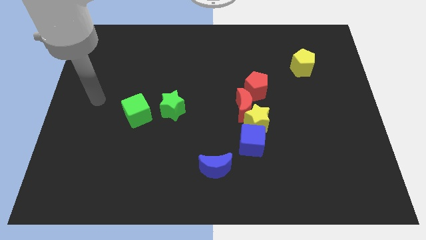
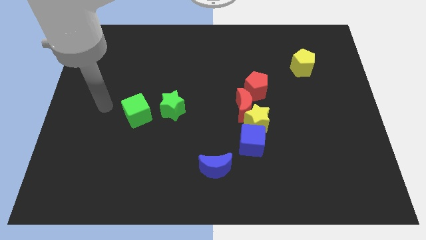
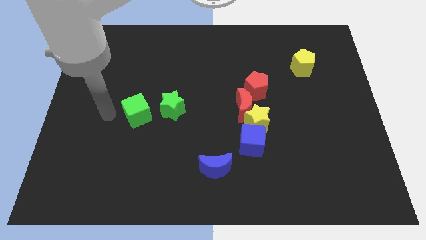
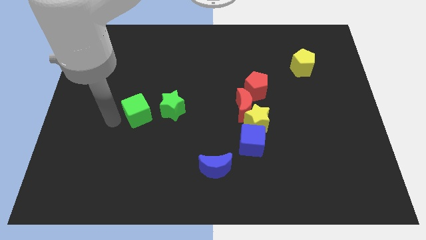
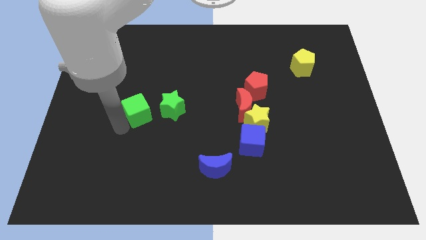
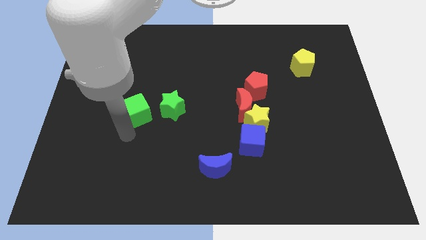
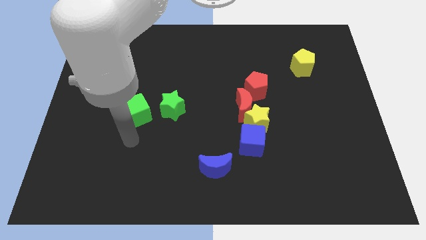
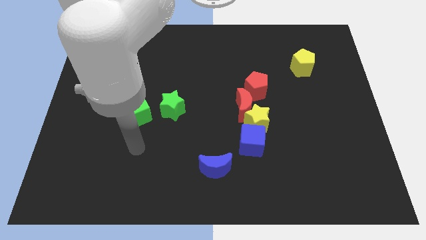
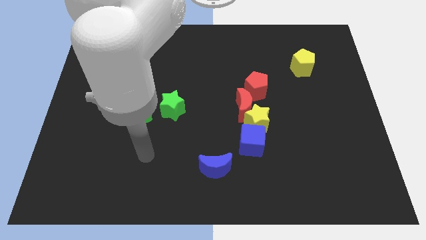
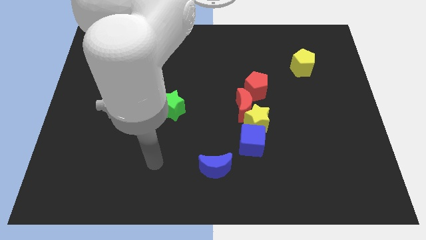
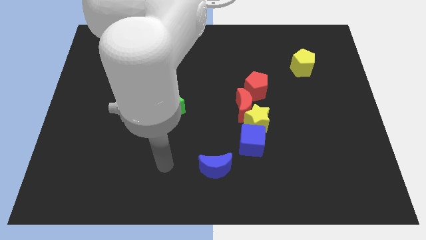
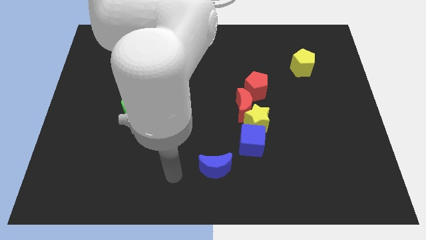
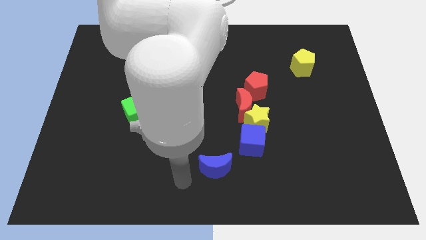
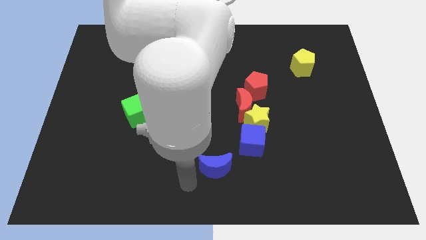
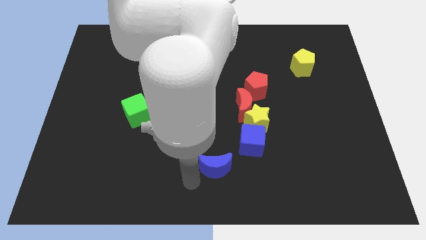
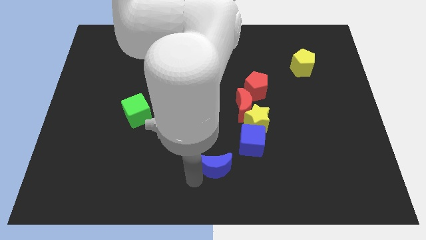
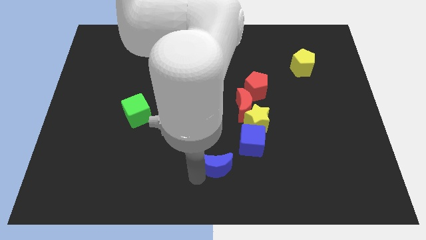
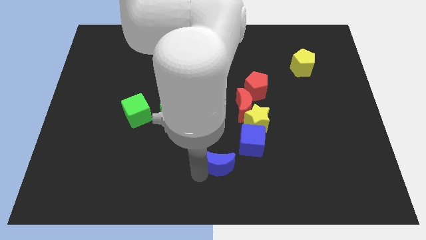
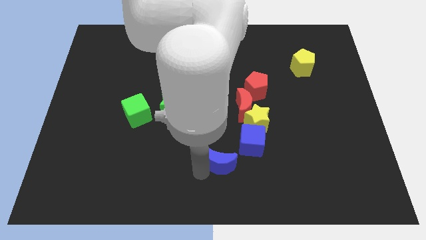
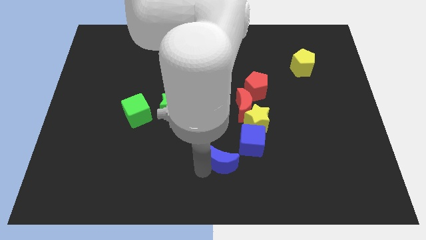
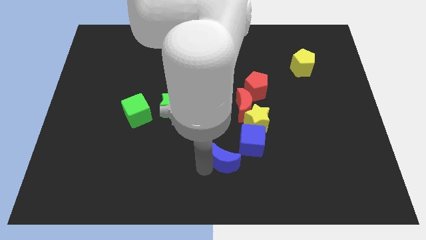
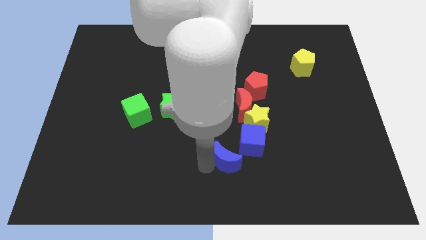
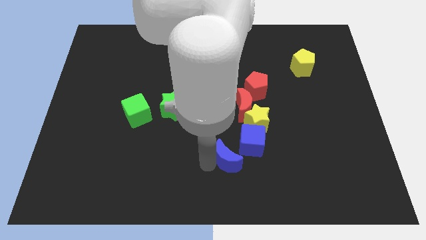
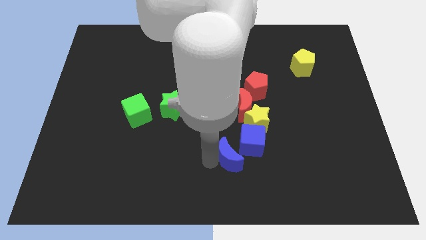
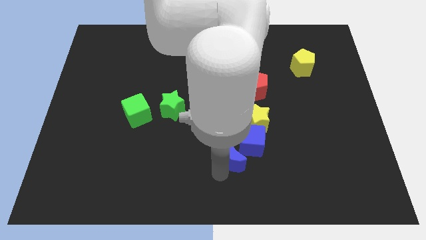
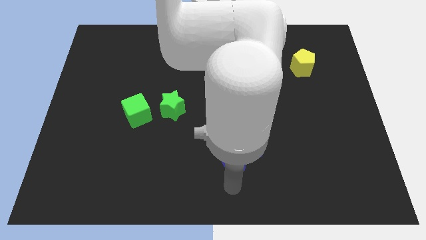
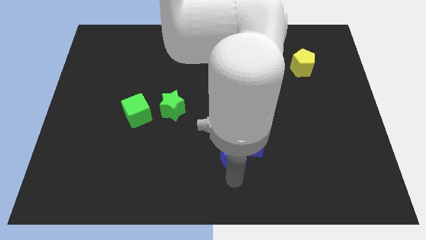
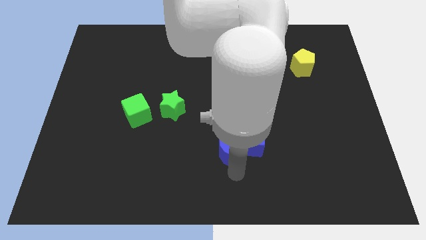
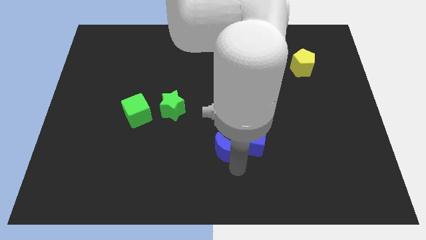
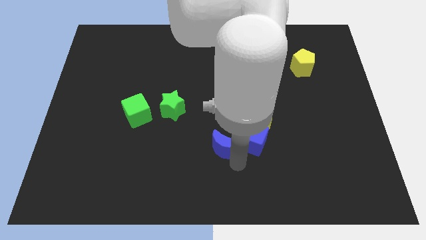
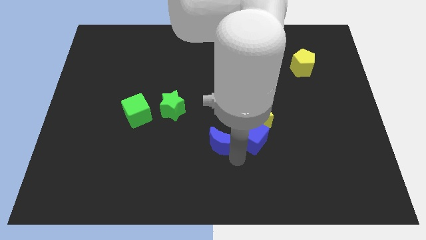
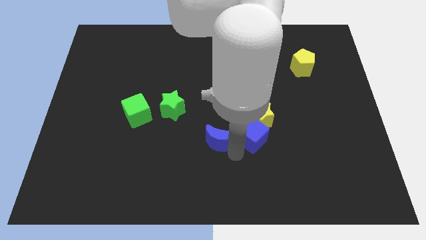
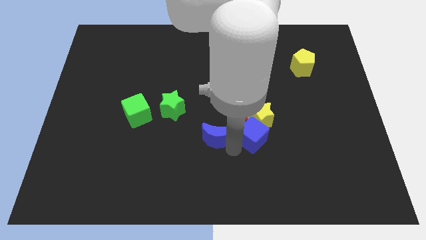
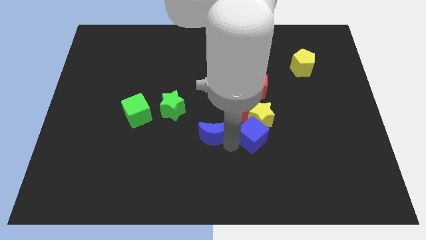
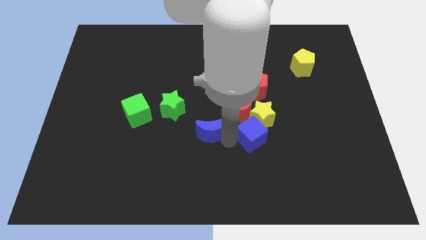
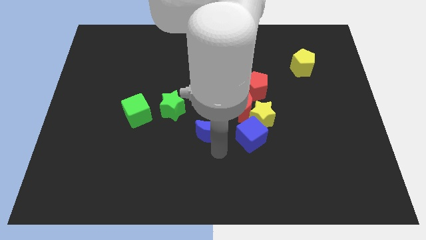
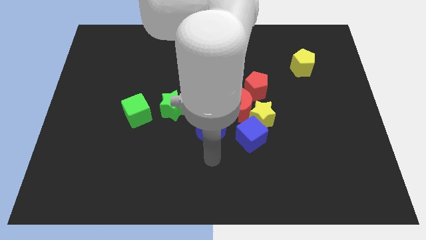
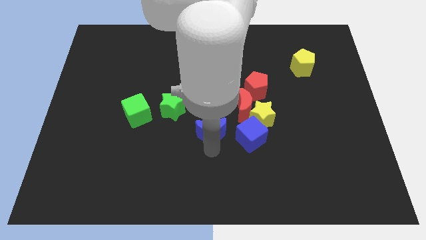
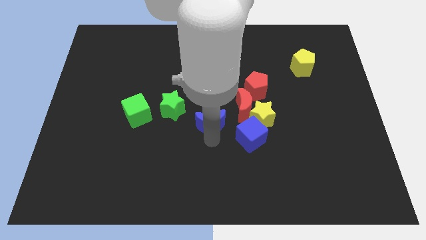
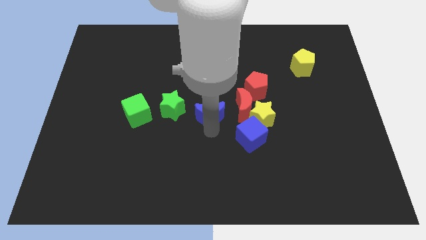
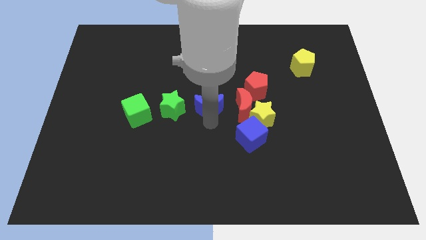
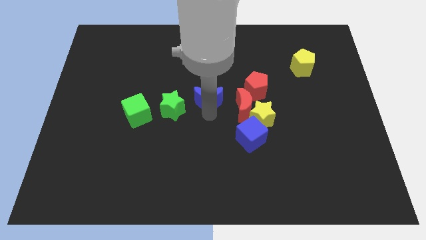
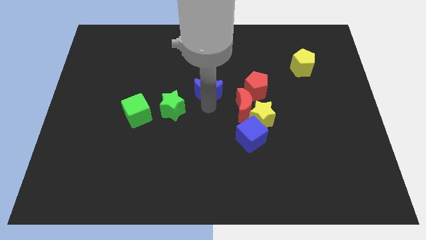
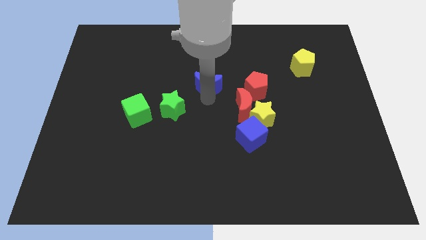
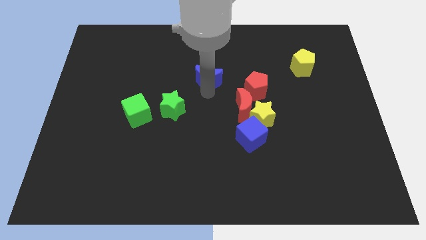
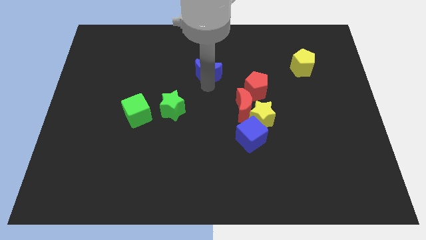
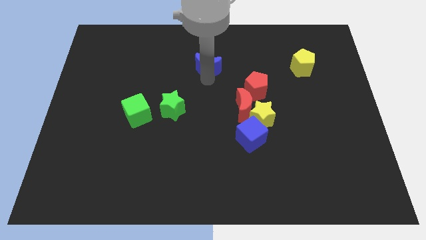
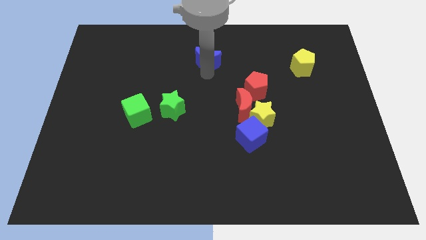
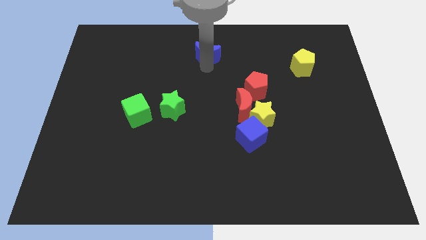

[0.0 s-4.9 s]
slide the blue moon to the towards your base

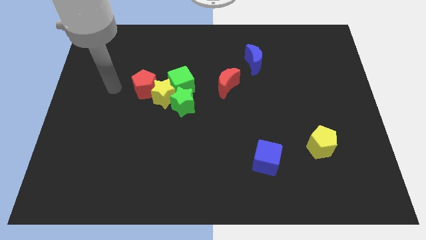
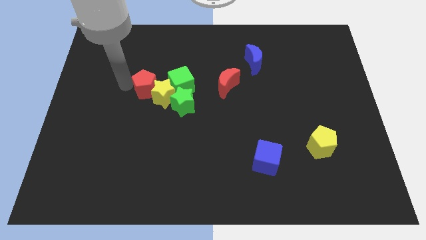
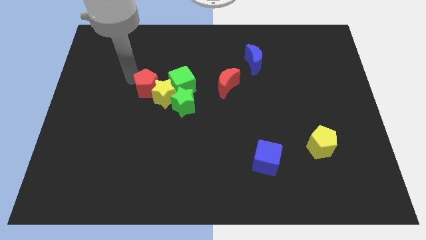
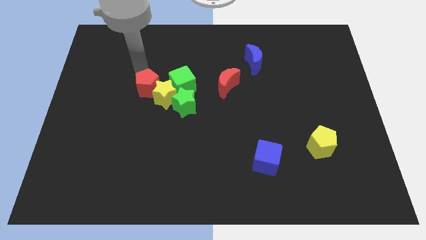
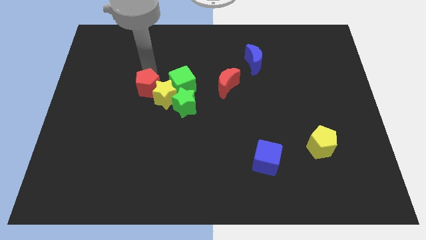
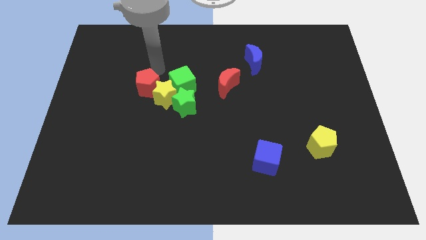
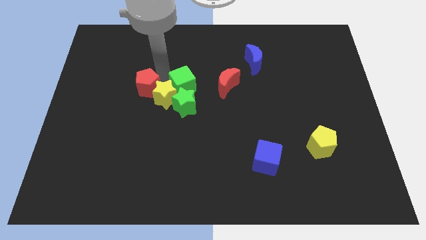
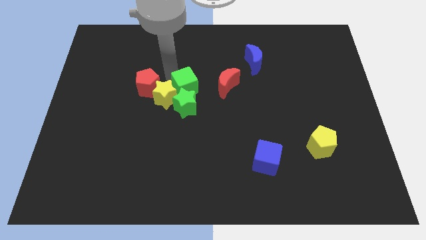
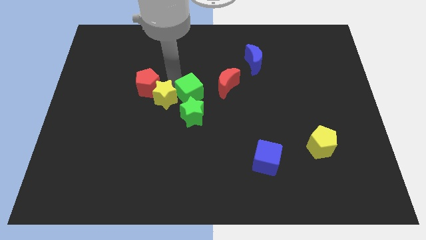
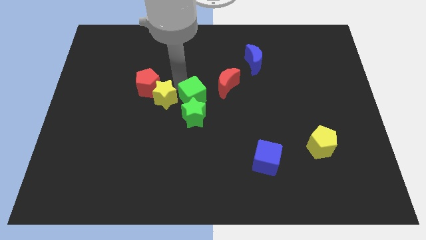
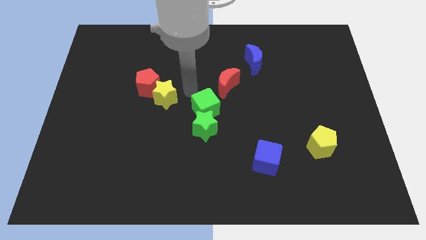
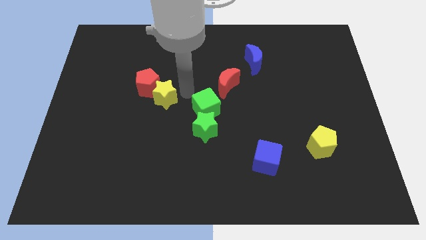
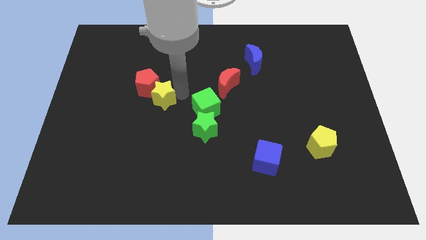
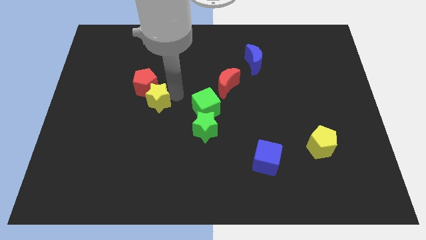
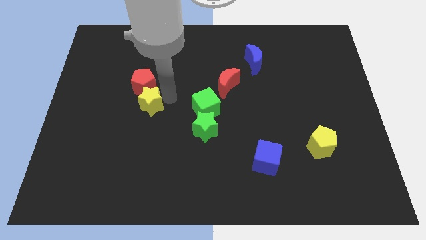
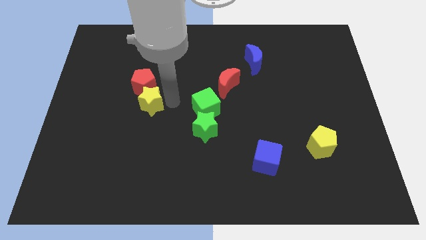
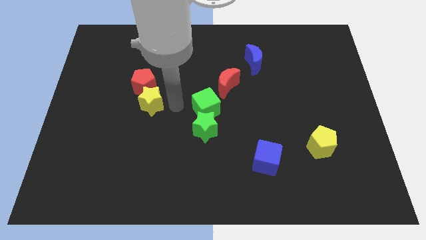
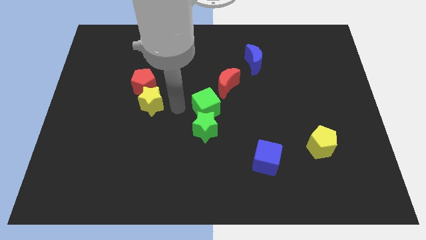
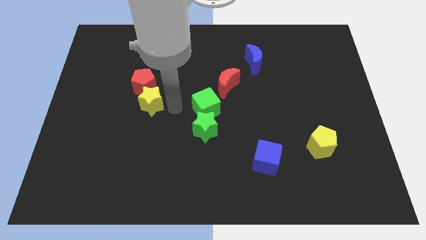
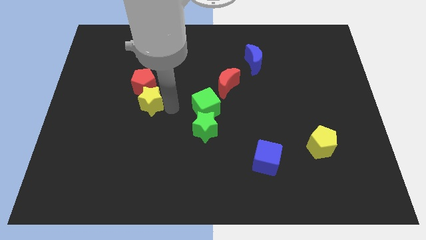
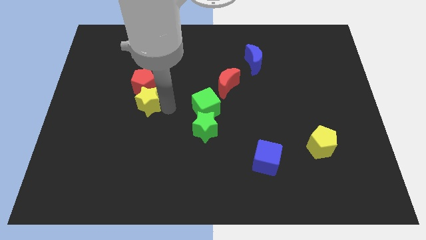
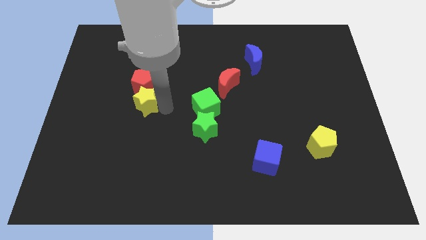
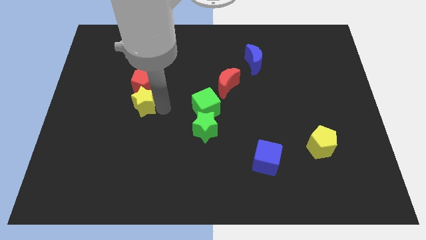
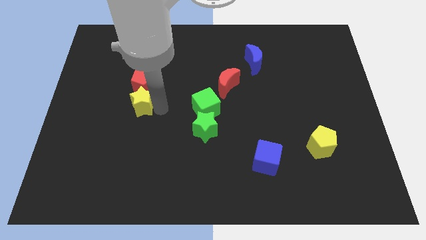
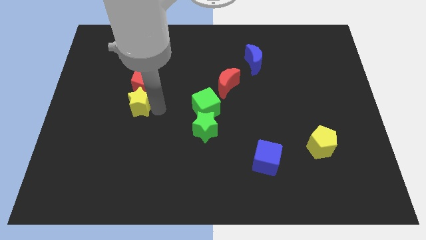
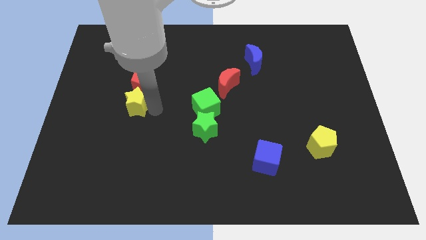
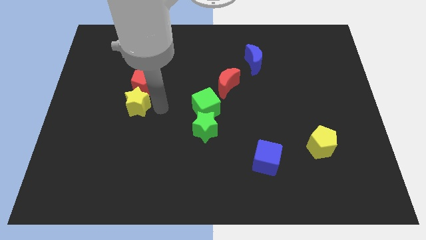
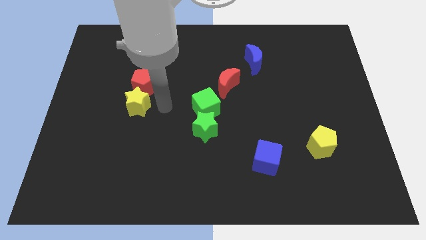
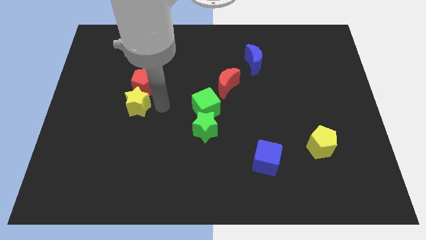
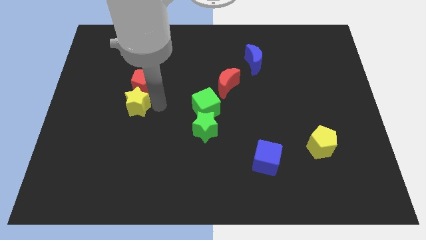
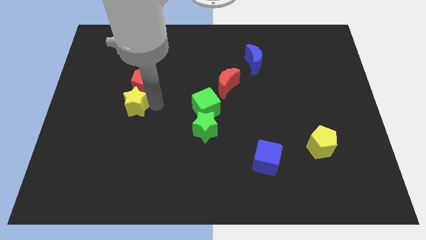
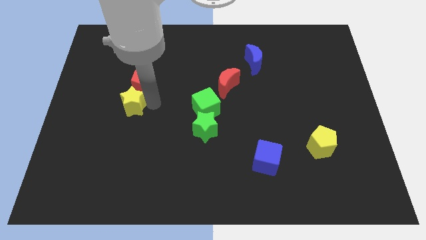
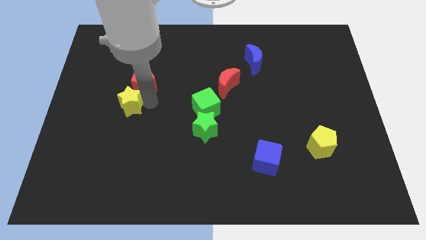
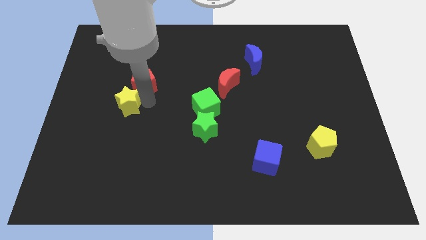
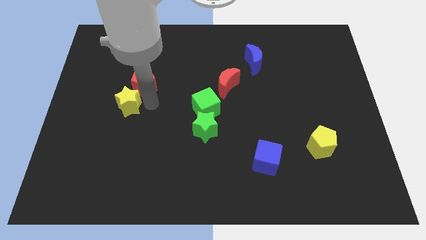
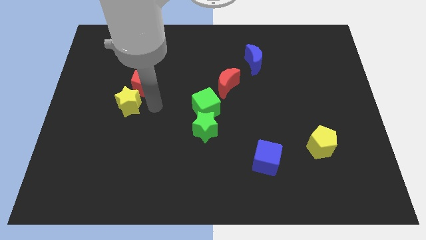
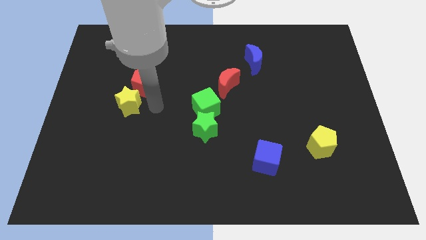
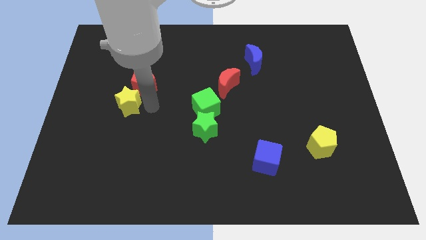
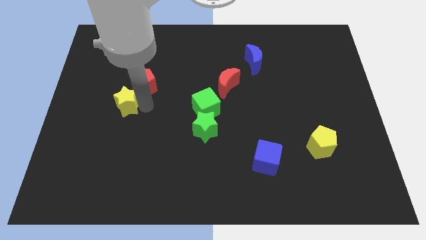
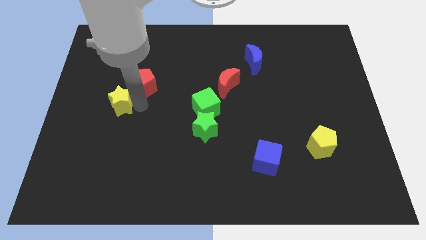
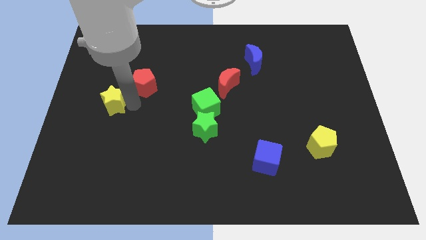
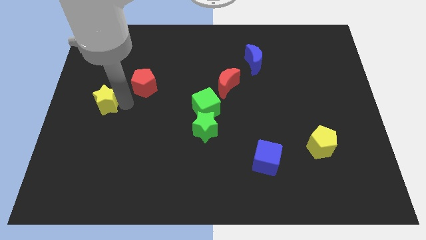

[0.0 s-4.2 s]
move the yellow star to the left side of the board
